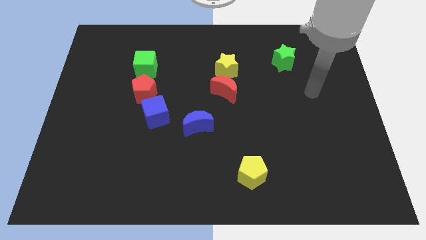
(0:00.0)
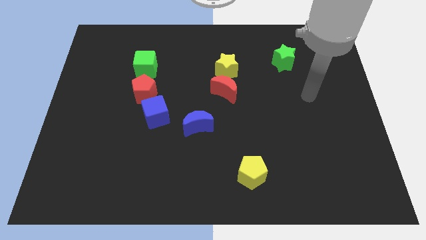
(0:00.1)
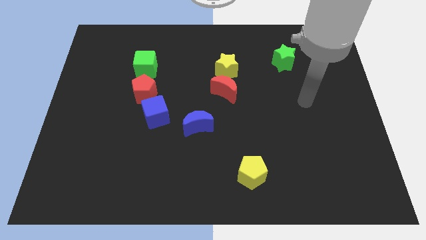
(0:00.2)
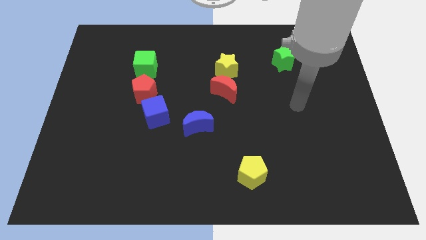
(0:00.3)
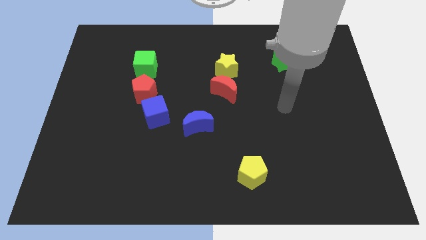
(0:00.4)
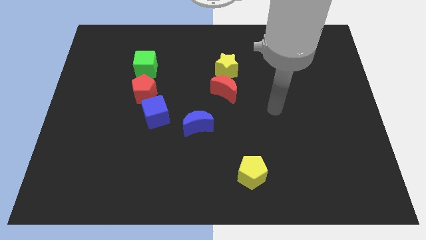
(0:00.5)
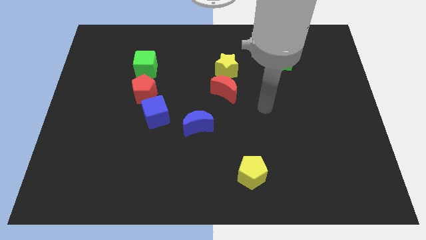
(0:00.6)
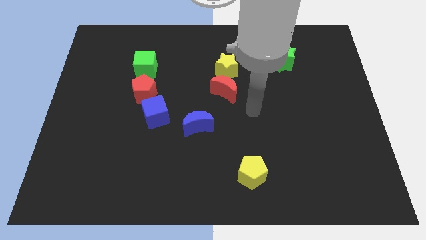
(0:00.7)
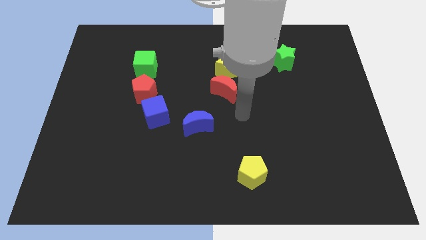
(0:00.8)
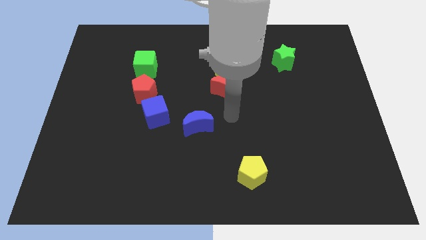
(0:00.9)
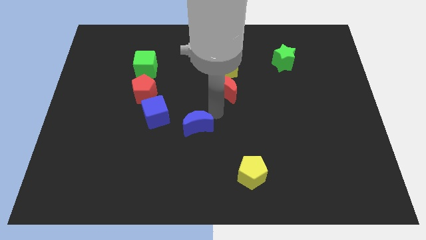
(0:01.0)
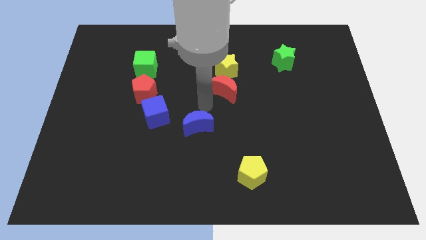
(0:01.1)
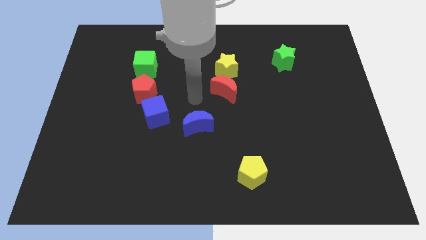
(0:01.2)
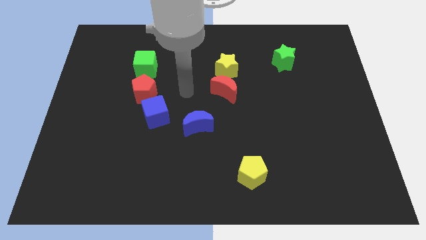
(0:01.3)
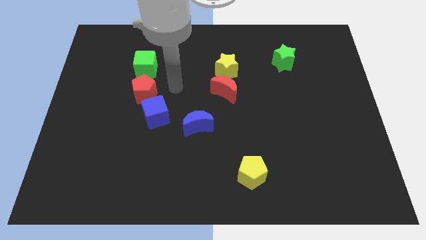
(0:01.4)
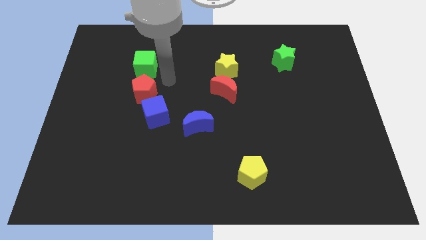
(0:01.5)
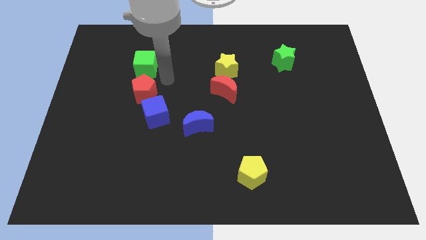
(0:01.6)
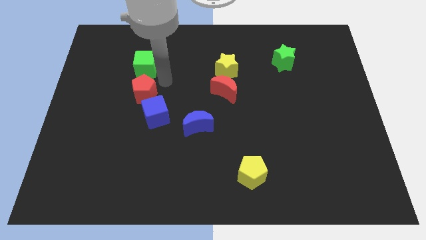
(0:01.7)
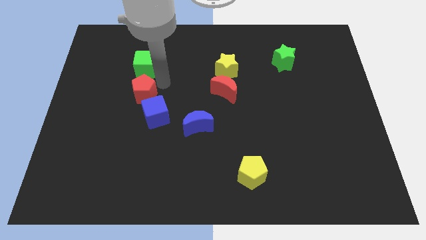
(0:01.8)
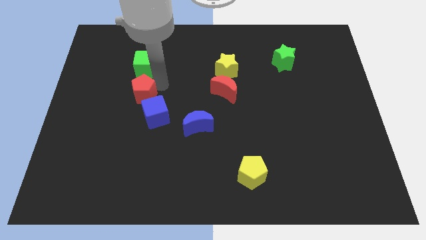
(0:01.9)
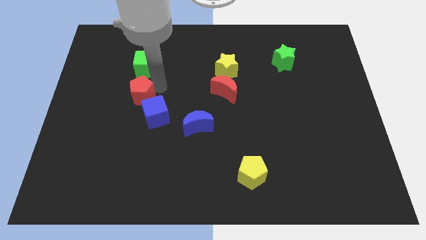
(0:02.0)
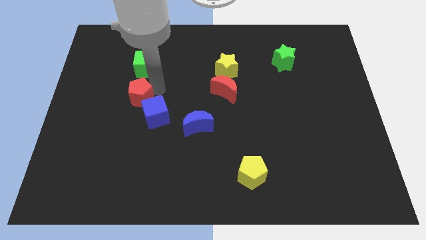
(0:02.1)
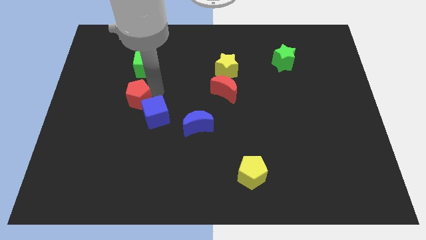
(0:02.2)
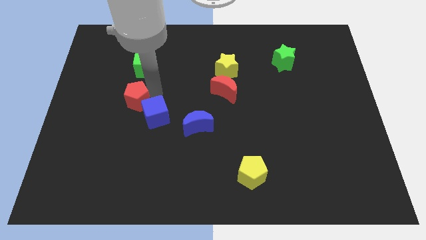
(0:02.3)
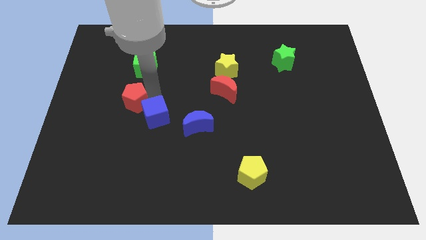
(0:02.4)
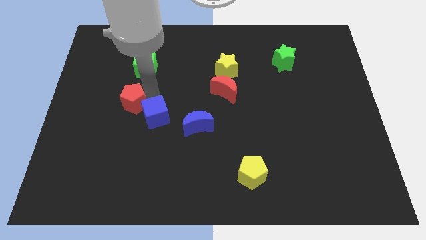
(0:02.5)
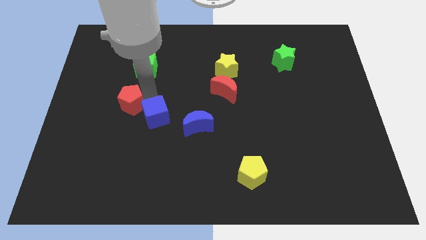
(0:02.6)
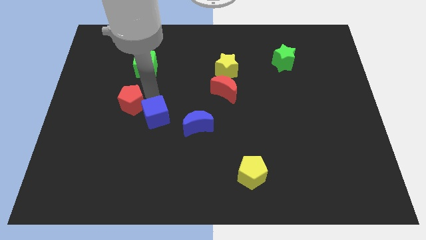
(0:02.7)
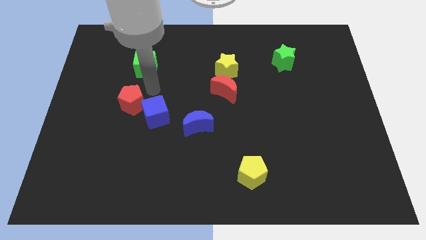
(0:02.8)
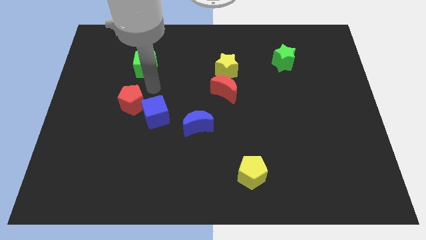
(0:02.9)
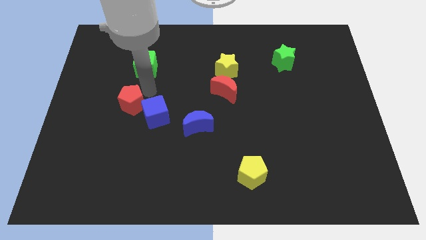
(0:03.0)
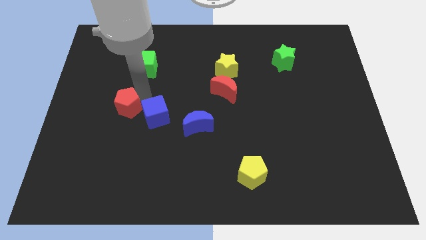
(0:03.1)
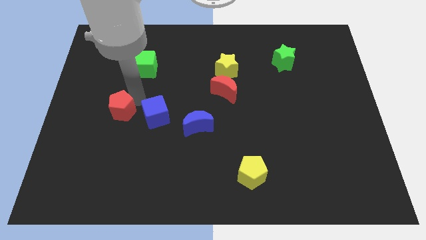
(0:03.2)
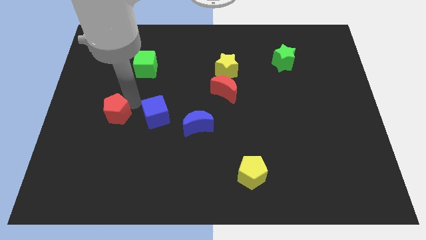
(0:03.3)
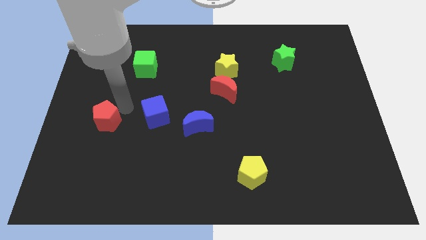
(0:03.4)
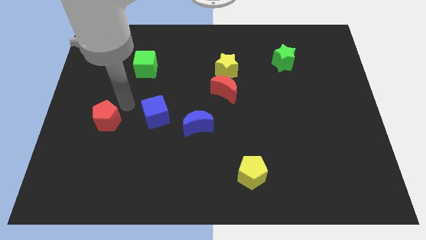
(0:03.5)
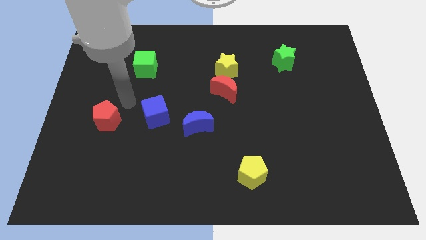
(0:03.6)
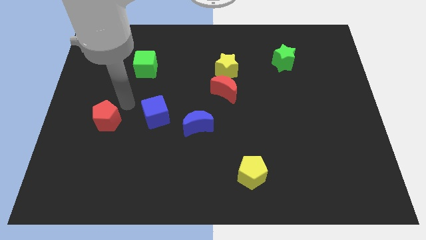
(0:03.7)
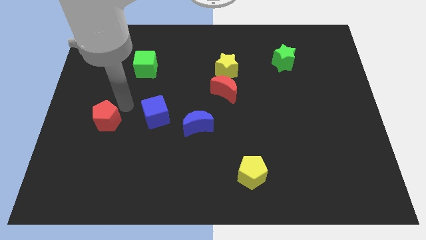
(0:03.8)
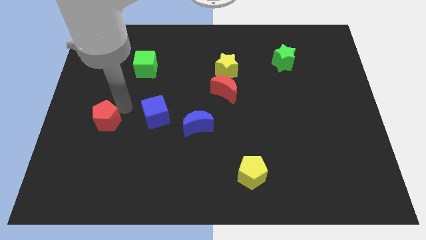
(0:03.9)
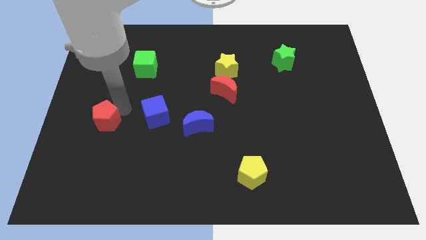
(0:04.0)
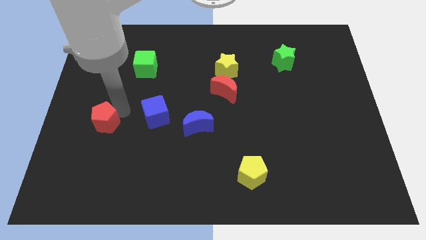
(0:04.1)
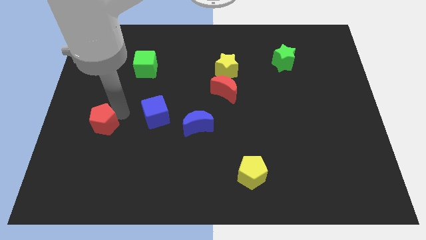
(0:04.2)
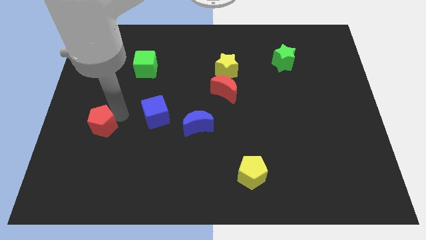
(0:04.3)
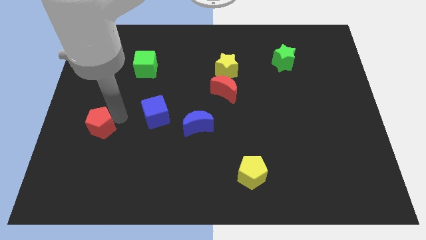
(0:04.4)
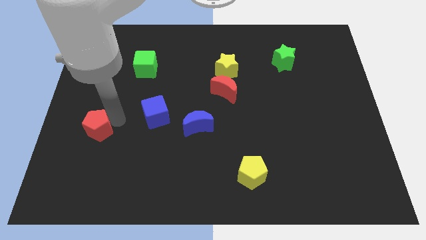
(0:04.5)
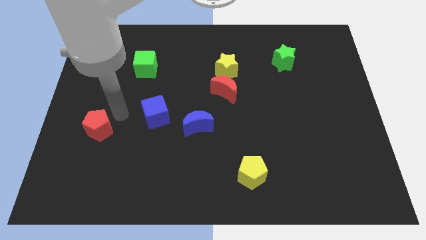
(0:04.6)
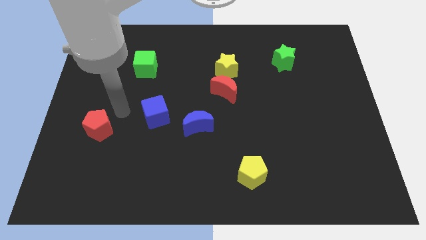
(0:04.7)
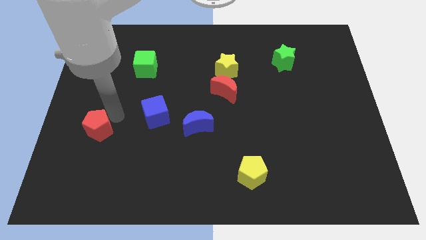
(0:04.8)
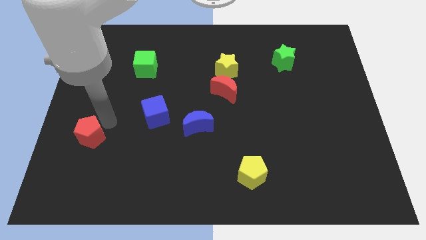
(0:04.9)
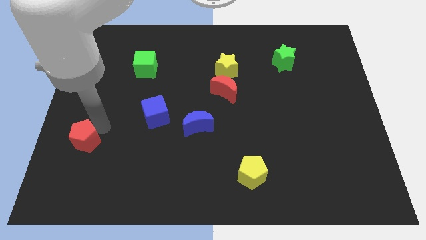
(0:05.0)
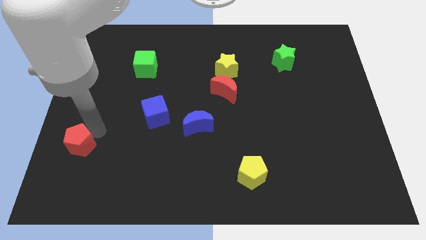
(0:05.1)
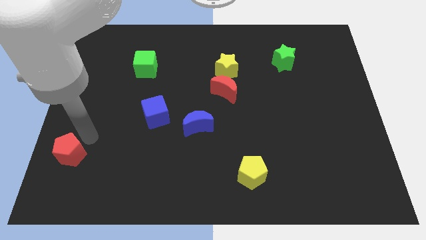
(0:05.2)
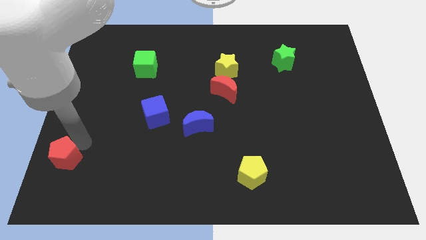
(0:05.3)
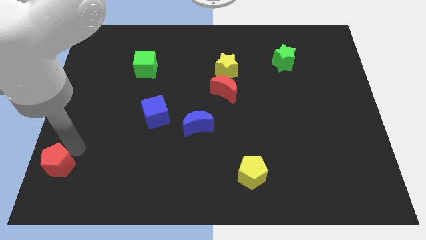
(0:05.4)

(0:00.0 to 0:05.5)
put the red pentagon to the bottom left of the board
